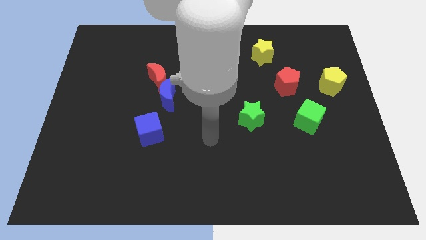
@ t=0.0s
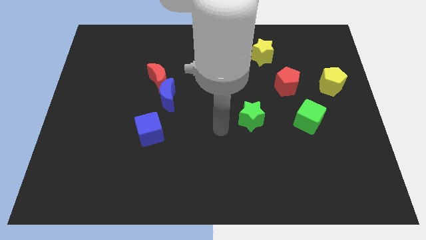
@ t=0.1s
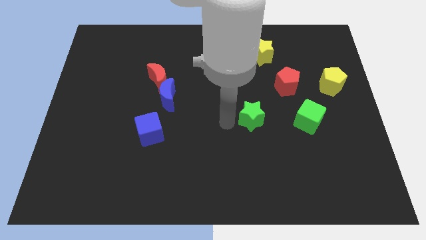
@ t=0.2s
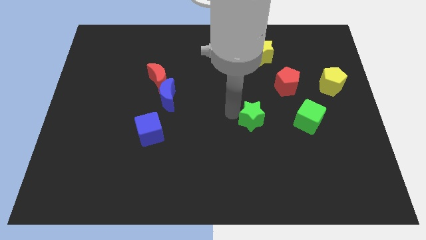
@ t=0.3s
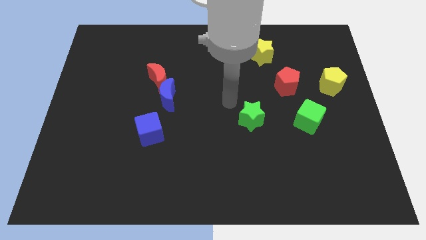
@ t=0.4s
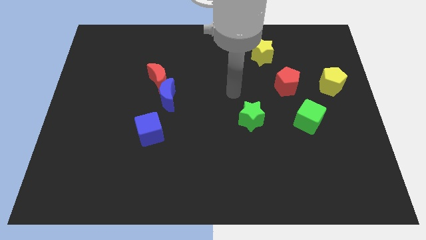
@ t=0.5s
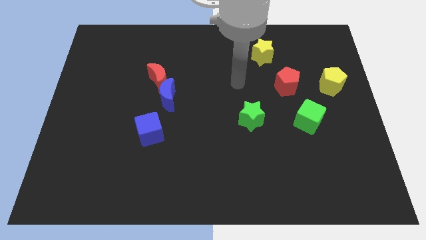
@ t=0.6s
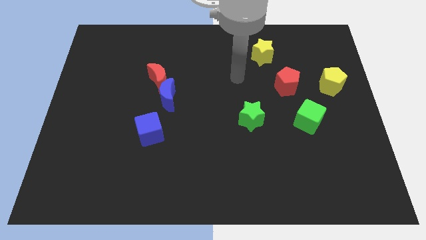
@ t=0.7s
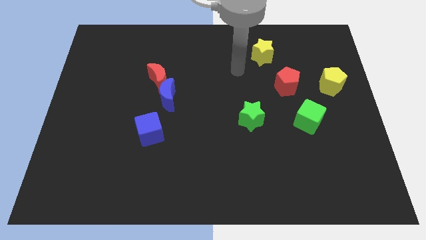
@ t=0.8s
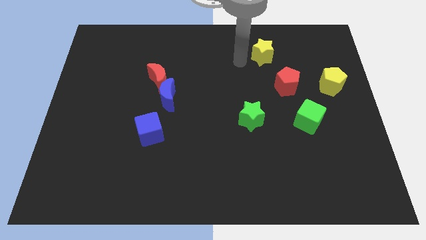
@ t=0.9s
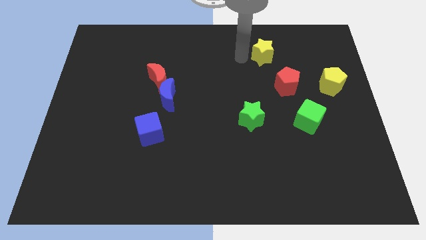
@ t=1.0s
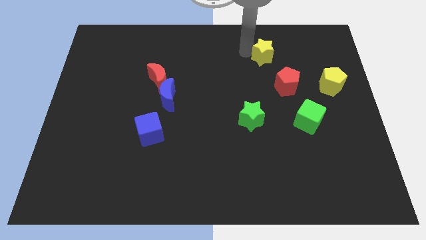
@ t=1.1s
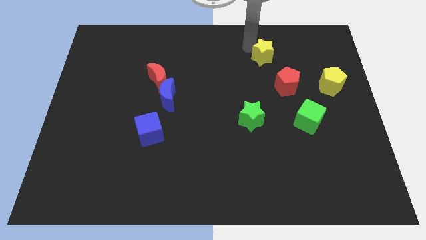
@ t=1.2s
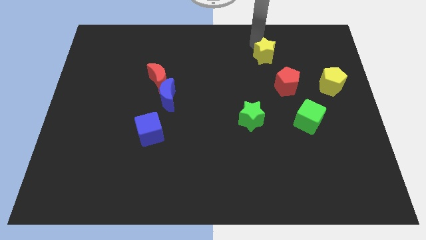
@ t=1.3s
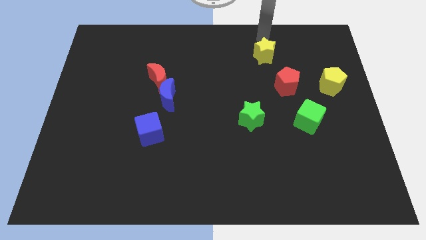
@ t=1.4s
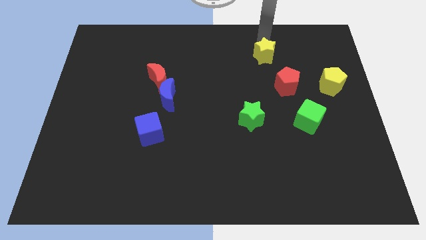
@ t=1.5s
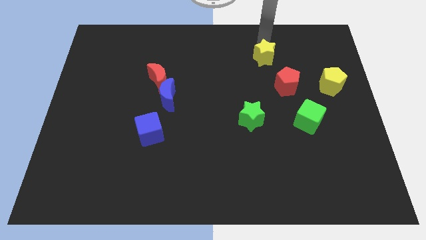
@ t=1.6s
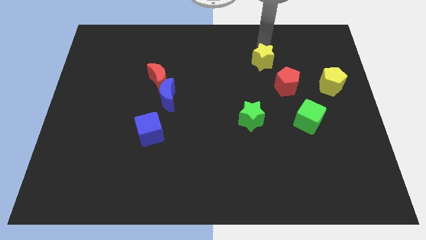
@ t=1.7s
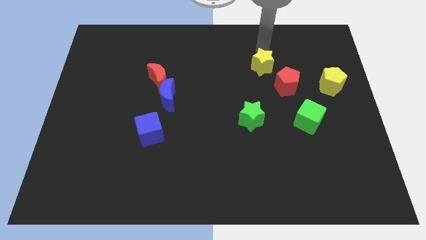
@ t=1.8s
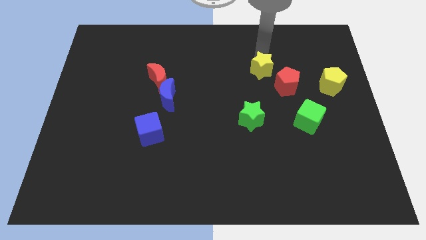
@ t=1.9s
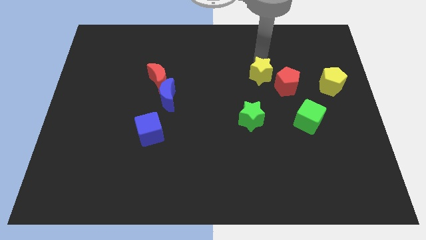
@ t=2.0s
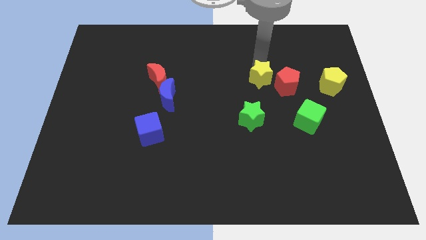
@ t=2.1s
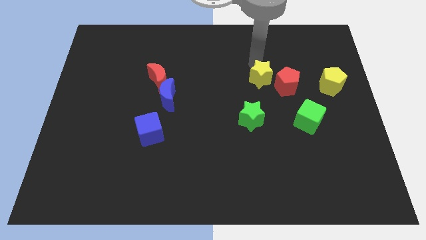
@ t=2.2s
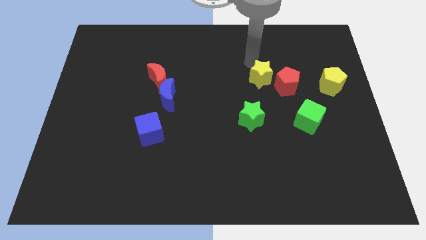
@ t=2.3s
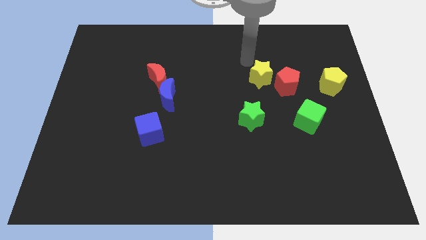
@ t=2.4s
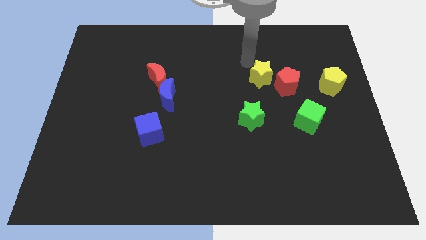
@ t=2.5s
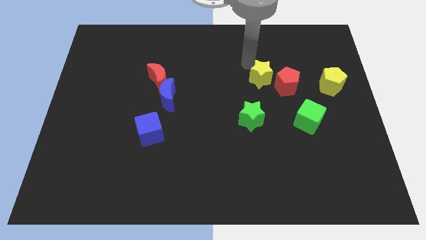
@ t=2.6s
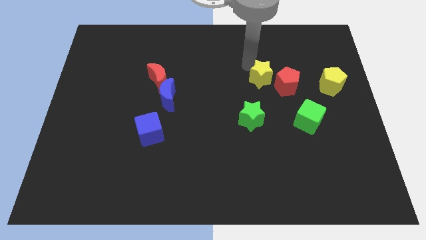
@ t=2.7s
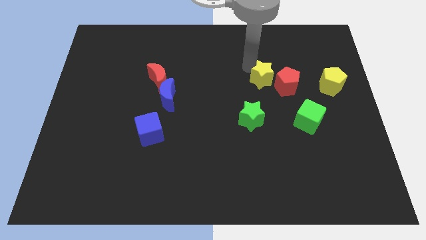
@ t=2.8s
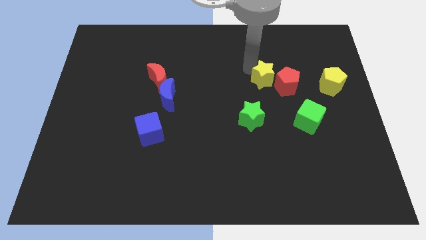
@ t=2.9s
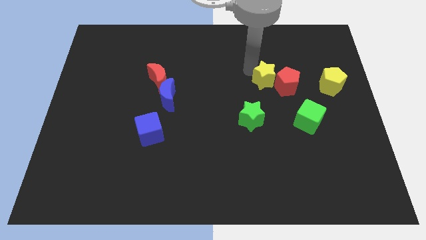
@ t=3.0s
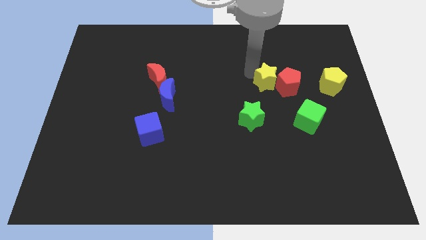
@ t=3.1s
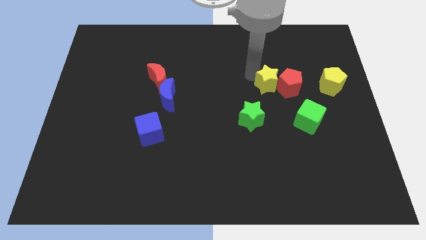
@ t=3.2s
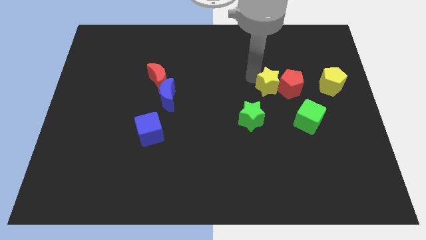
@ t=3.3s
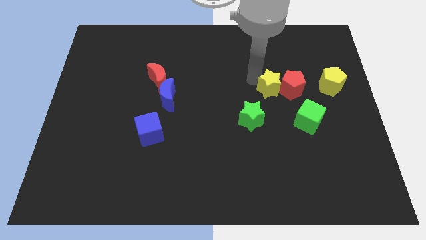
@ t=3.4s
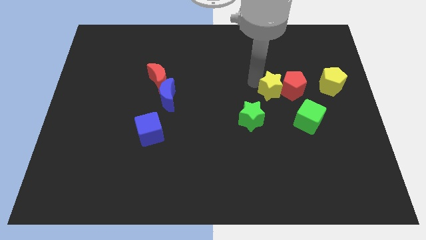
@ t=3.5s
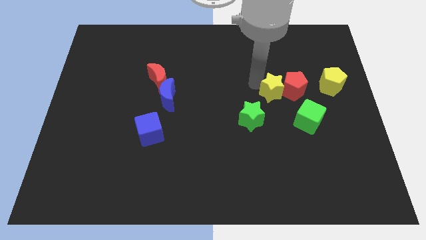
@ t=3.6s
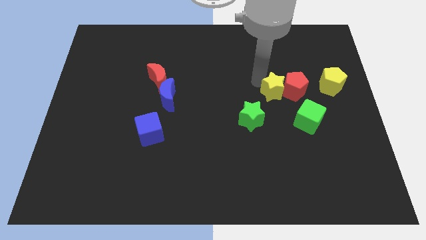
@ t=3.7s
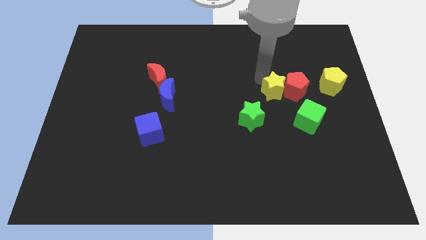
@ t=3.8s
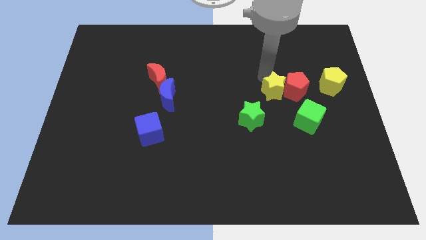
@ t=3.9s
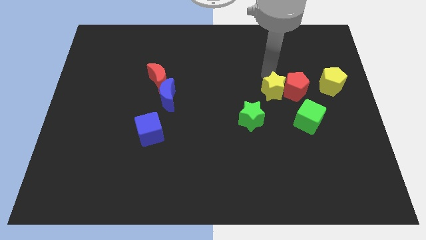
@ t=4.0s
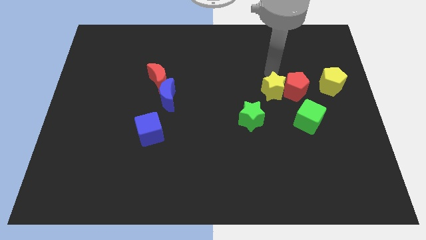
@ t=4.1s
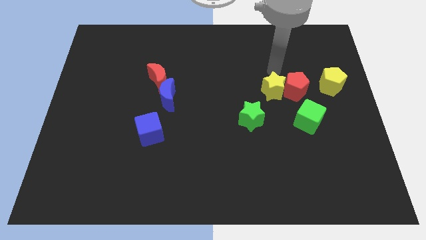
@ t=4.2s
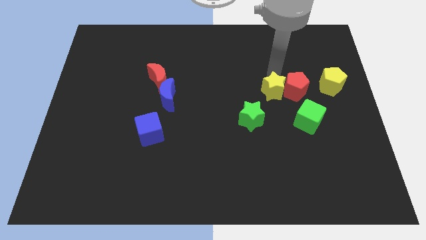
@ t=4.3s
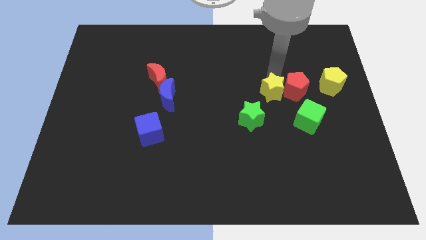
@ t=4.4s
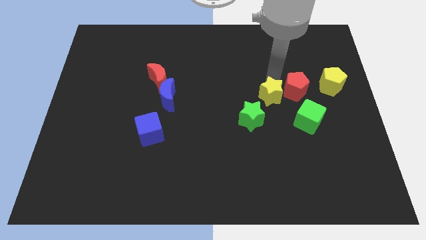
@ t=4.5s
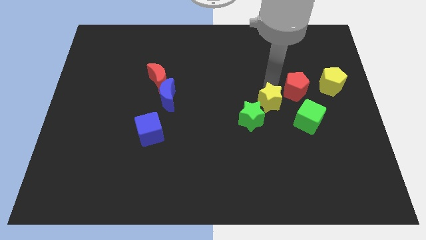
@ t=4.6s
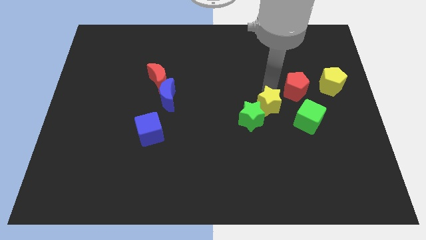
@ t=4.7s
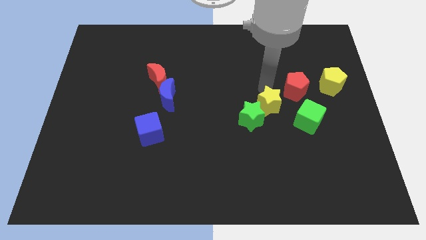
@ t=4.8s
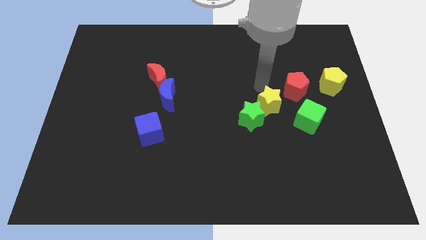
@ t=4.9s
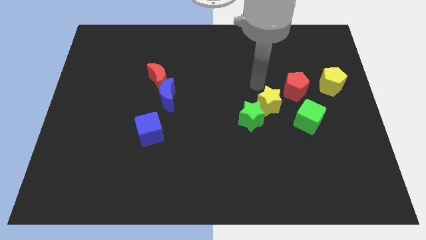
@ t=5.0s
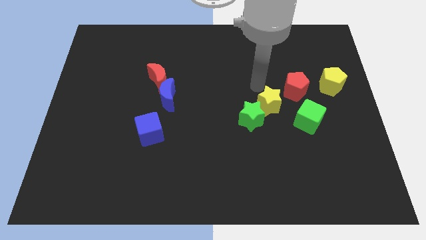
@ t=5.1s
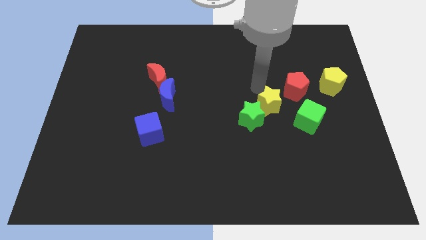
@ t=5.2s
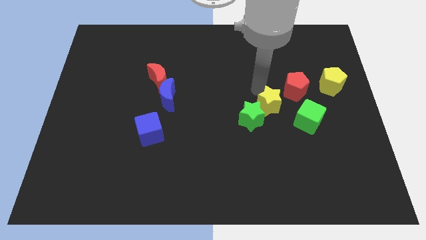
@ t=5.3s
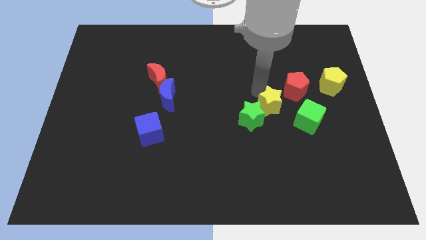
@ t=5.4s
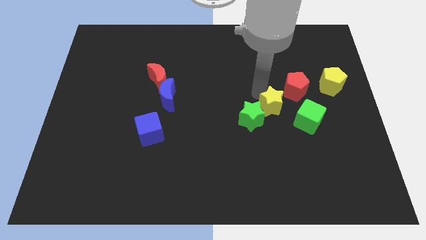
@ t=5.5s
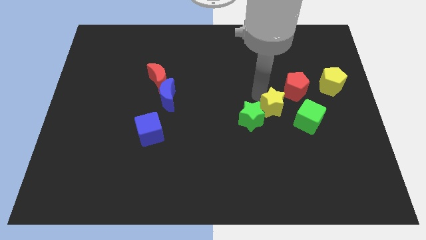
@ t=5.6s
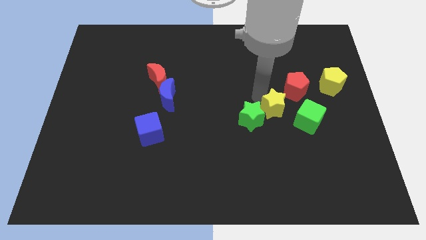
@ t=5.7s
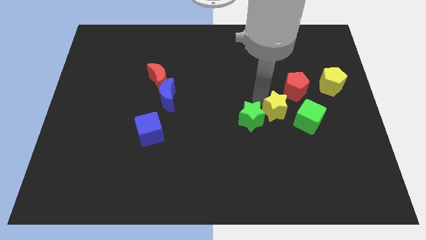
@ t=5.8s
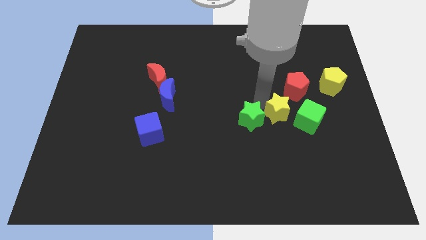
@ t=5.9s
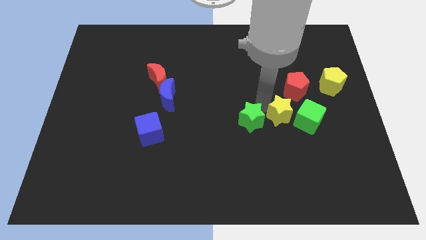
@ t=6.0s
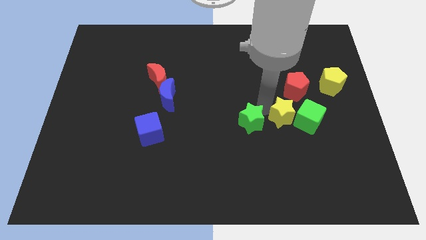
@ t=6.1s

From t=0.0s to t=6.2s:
push the yellow star downwards

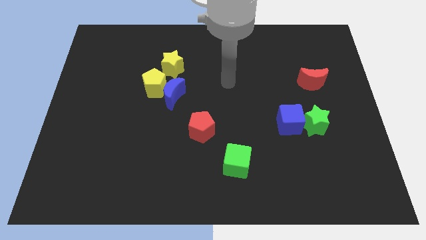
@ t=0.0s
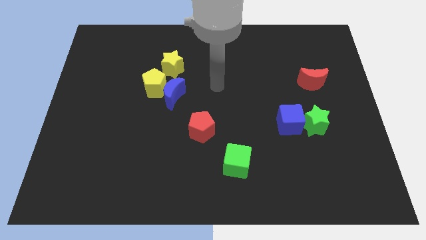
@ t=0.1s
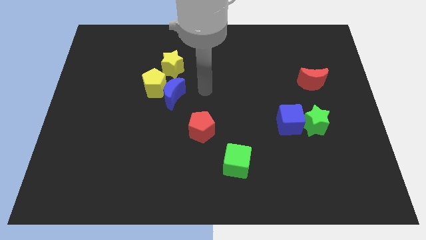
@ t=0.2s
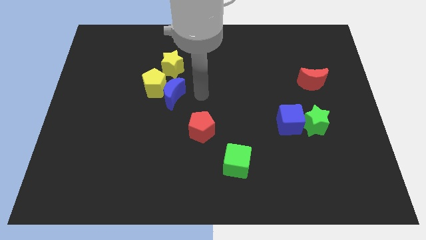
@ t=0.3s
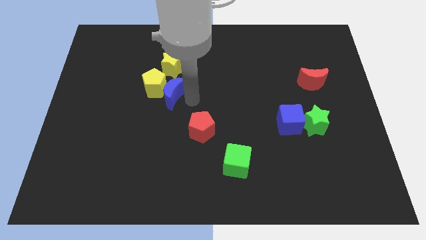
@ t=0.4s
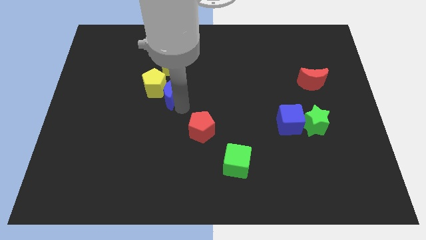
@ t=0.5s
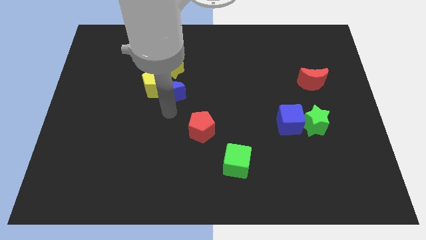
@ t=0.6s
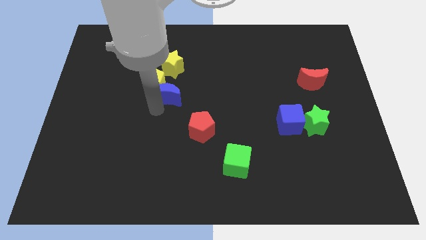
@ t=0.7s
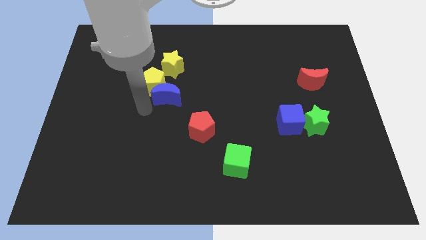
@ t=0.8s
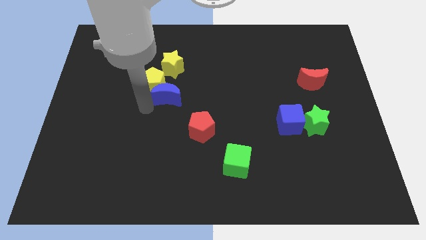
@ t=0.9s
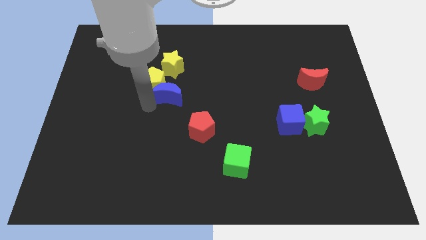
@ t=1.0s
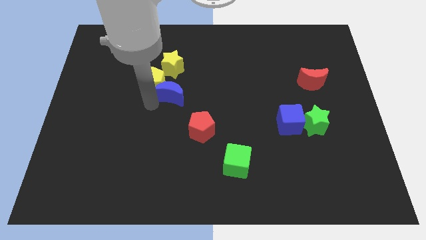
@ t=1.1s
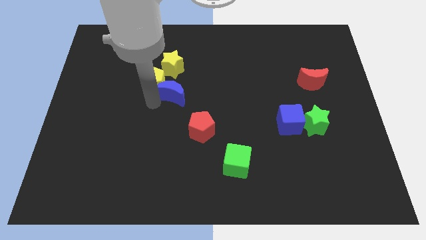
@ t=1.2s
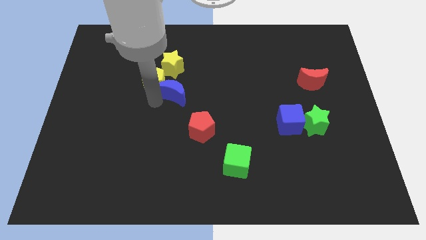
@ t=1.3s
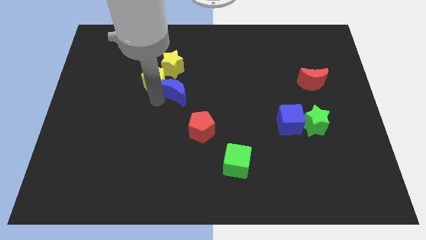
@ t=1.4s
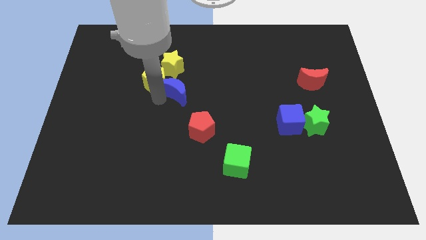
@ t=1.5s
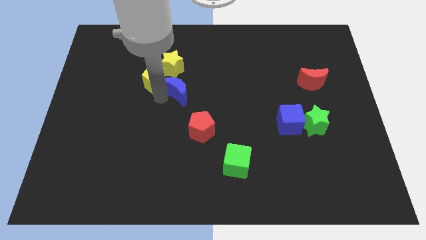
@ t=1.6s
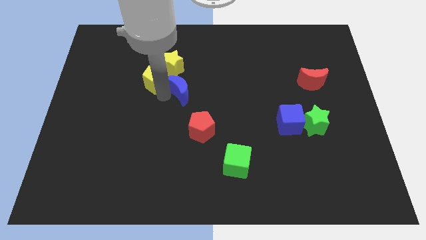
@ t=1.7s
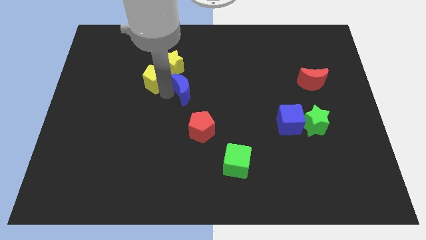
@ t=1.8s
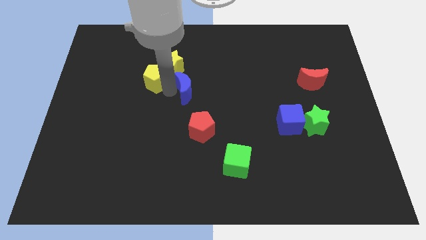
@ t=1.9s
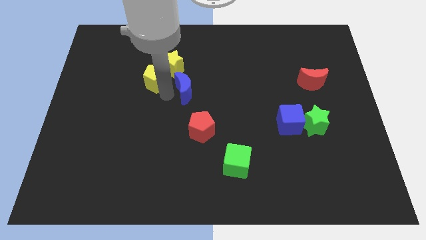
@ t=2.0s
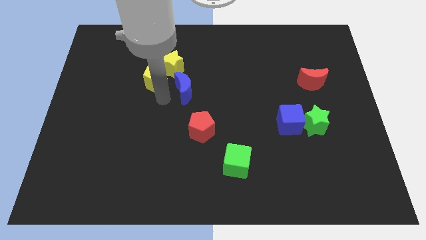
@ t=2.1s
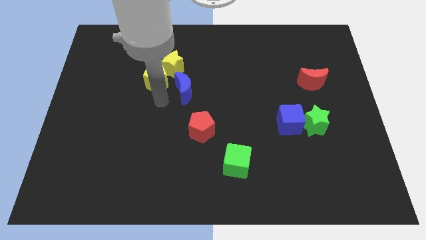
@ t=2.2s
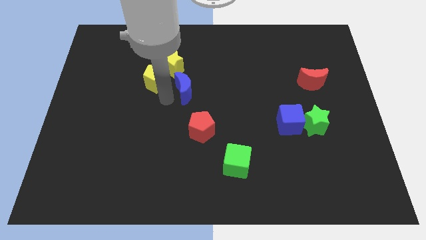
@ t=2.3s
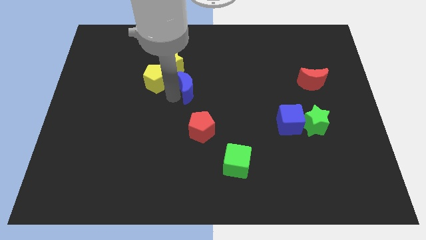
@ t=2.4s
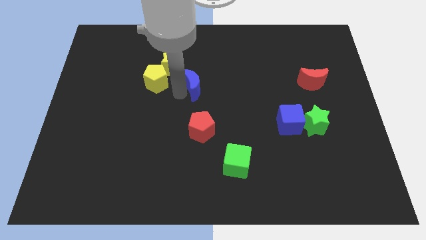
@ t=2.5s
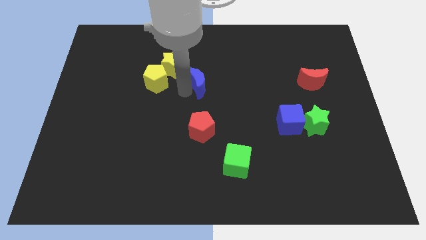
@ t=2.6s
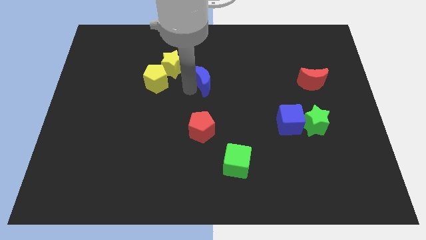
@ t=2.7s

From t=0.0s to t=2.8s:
push the blue moon diagonally up and right a bit
